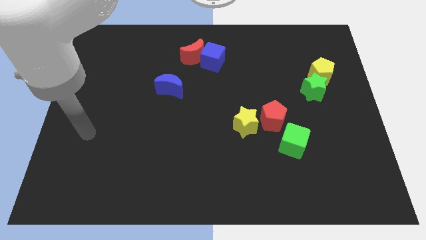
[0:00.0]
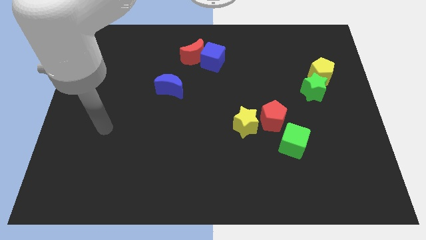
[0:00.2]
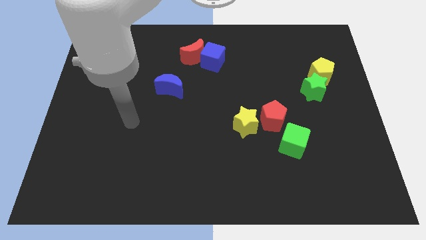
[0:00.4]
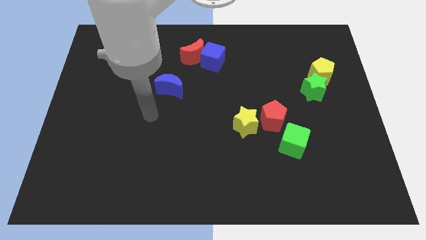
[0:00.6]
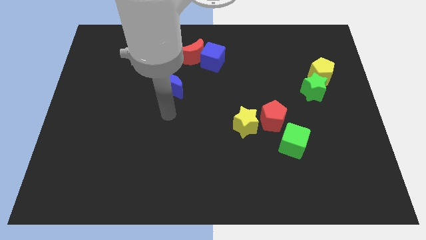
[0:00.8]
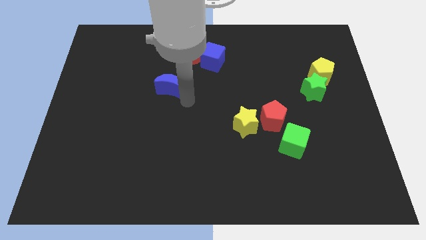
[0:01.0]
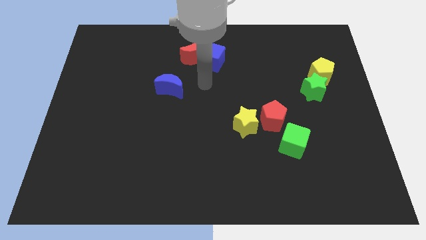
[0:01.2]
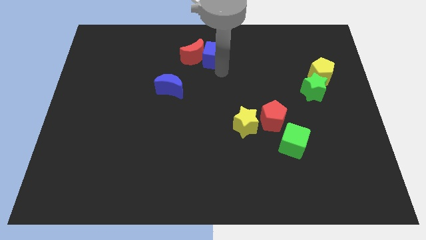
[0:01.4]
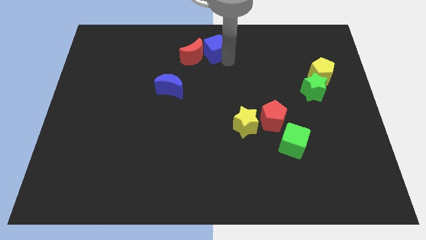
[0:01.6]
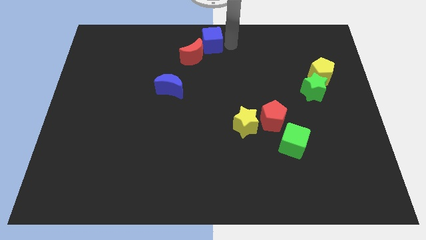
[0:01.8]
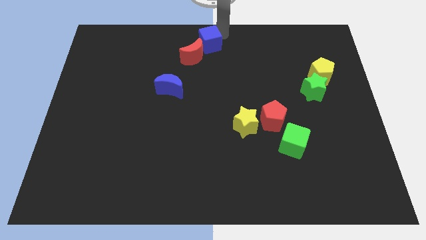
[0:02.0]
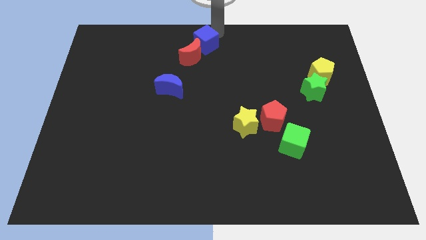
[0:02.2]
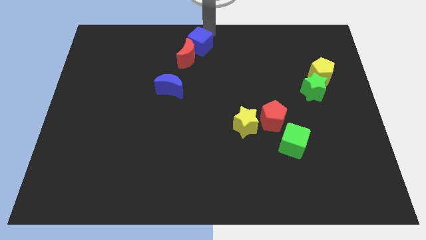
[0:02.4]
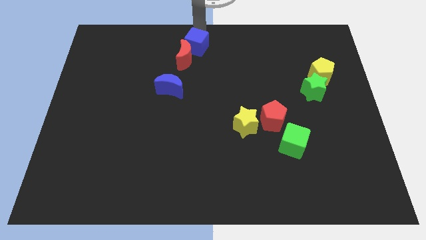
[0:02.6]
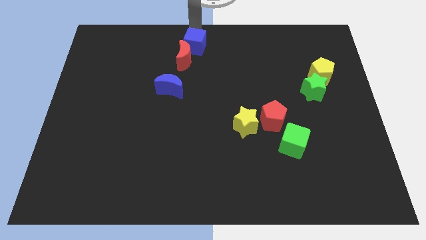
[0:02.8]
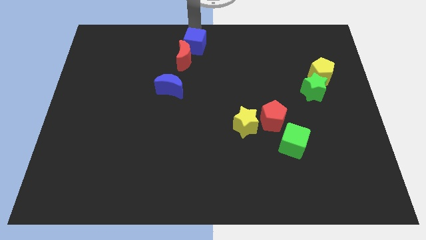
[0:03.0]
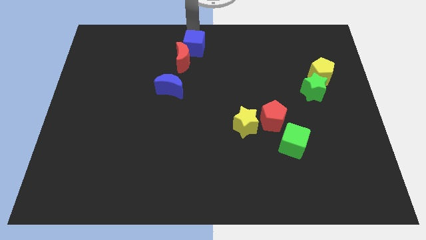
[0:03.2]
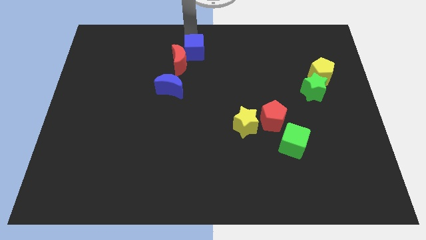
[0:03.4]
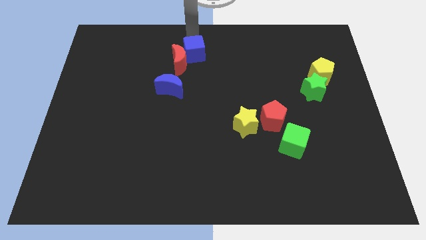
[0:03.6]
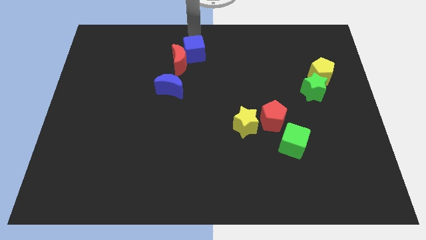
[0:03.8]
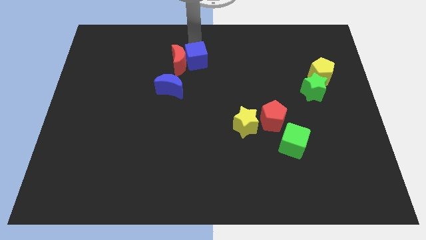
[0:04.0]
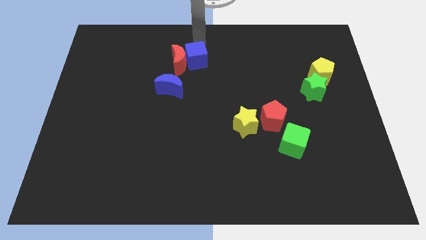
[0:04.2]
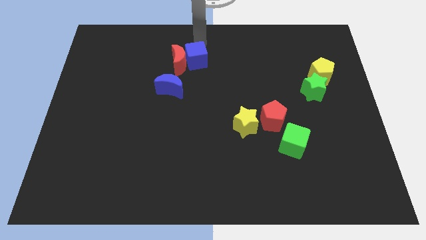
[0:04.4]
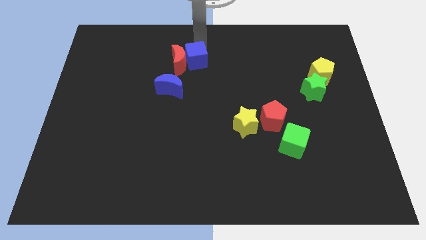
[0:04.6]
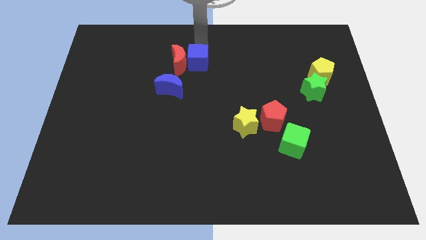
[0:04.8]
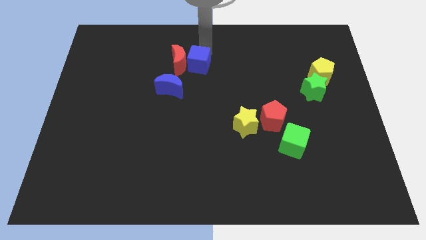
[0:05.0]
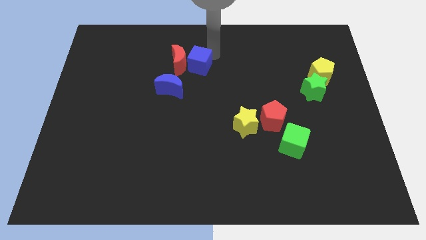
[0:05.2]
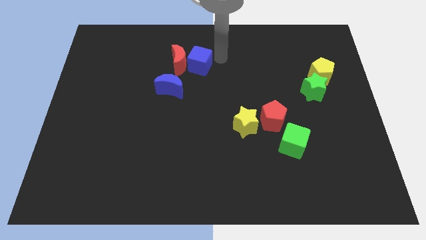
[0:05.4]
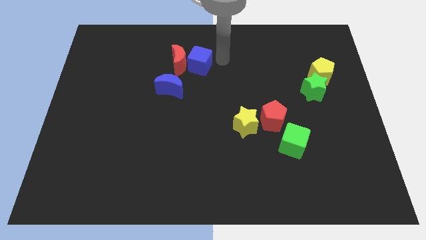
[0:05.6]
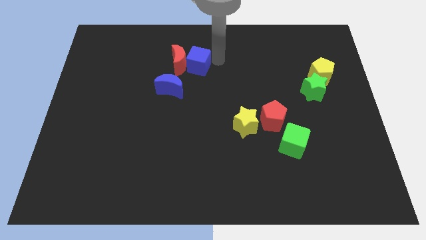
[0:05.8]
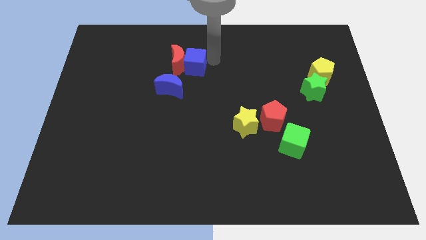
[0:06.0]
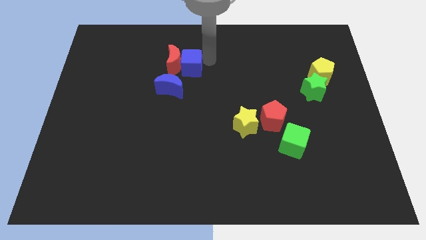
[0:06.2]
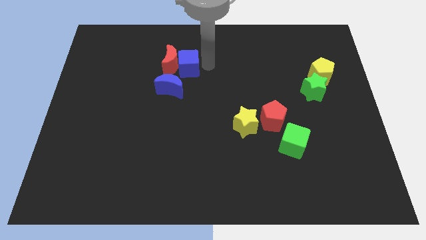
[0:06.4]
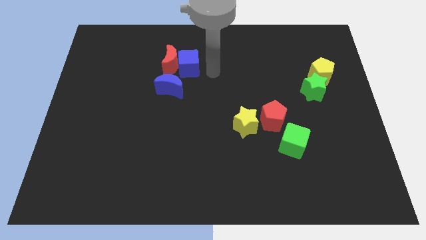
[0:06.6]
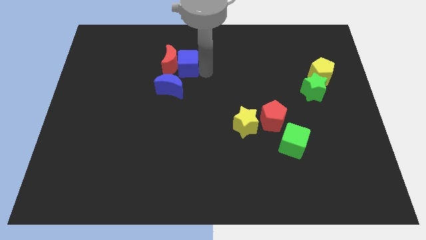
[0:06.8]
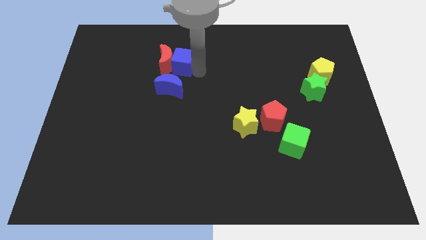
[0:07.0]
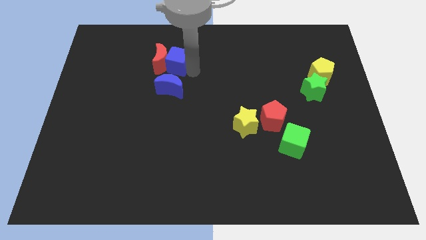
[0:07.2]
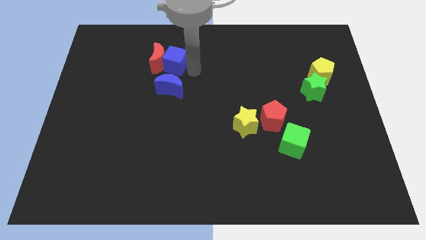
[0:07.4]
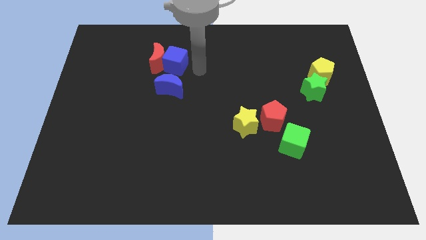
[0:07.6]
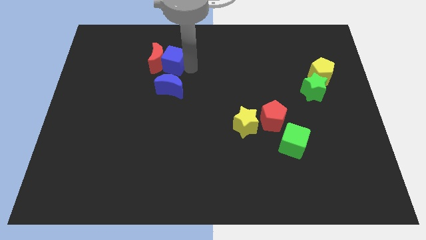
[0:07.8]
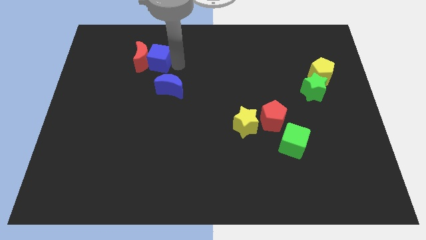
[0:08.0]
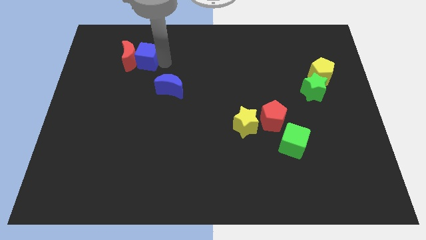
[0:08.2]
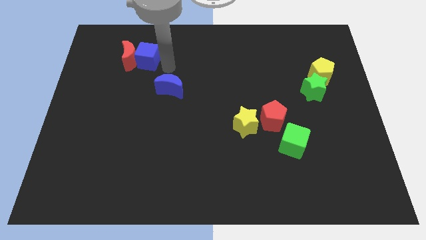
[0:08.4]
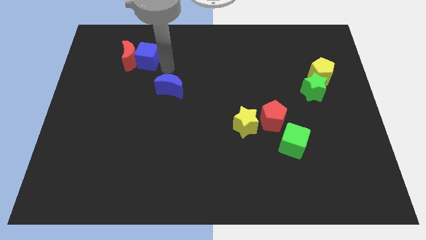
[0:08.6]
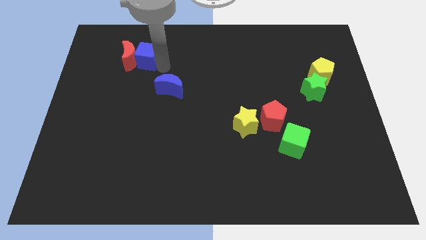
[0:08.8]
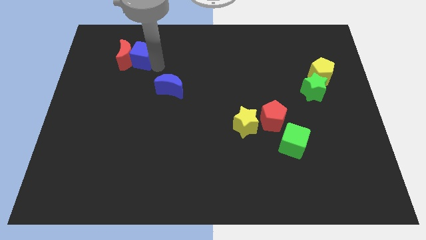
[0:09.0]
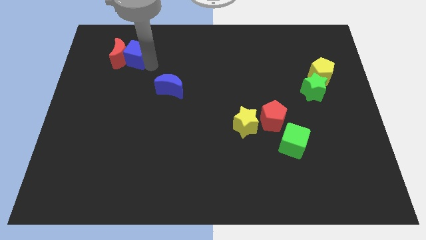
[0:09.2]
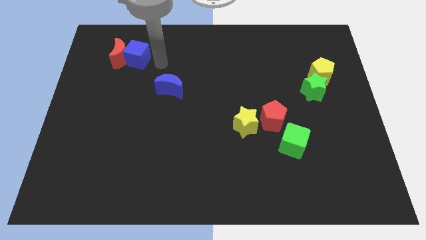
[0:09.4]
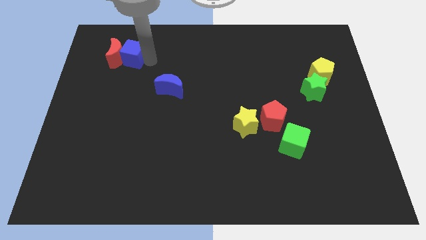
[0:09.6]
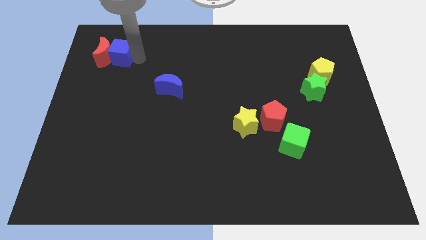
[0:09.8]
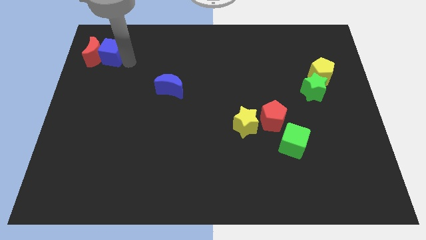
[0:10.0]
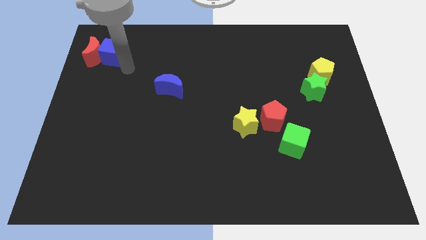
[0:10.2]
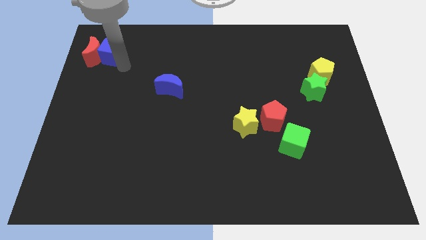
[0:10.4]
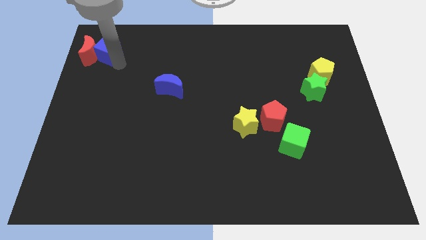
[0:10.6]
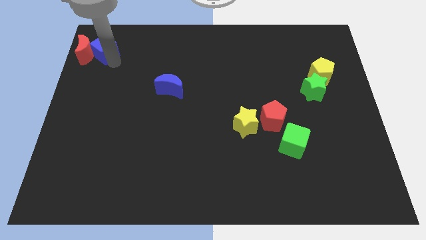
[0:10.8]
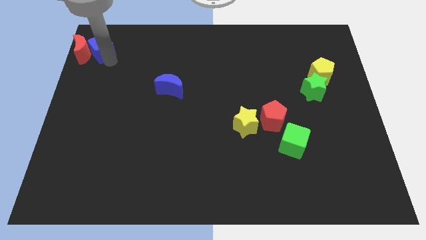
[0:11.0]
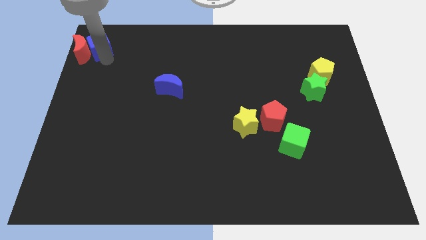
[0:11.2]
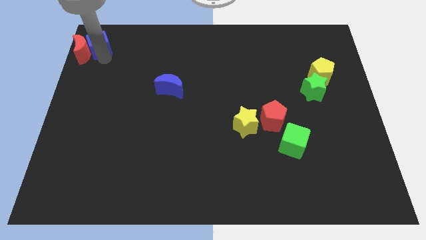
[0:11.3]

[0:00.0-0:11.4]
move the blue cube to the top left corner

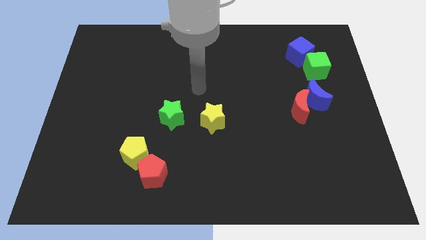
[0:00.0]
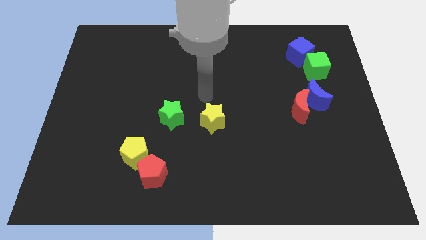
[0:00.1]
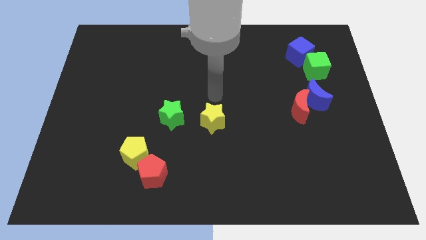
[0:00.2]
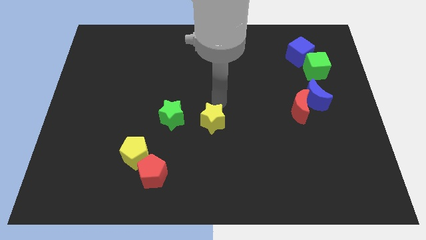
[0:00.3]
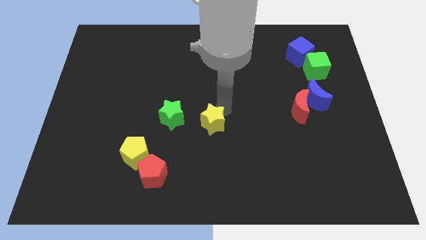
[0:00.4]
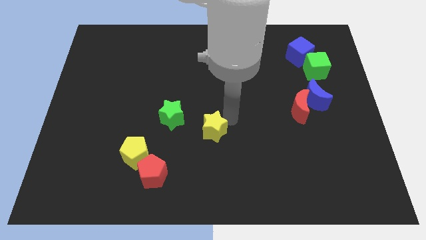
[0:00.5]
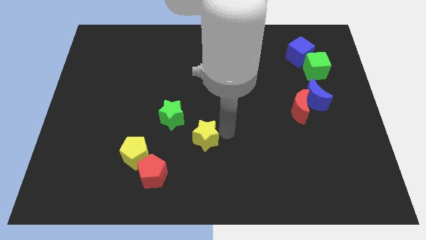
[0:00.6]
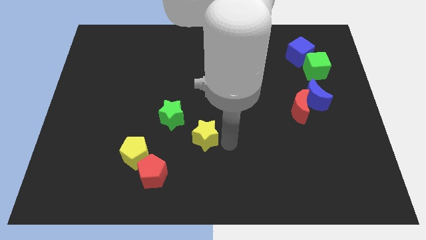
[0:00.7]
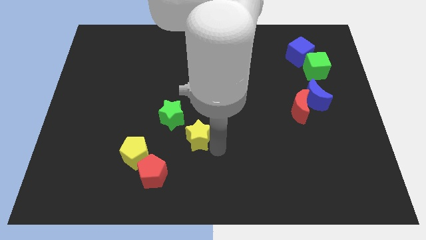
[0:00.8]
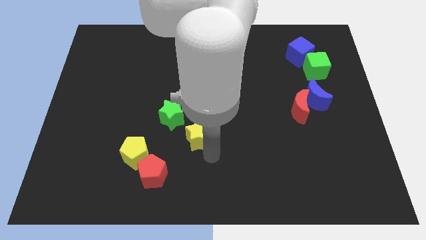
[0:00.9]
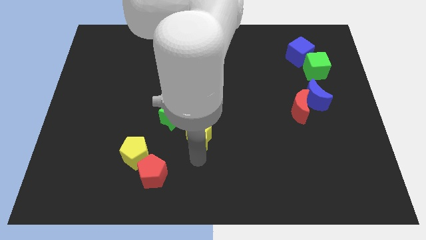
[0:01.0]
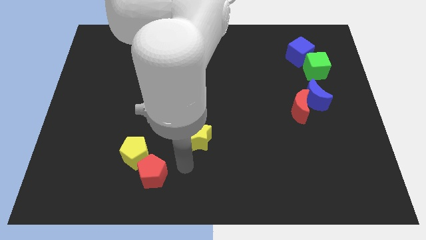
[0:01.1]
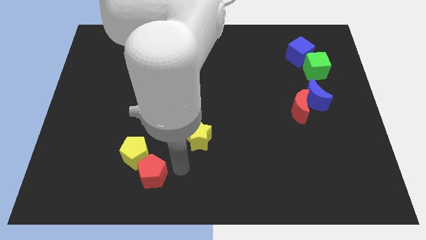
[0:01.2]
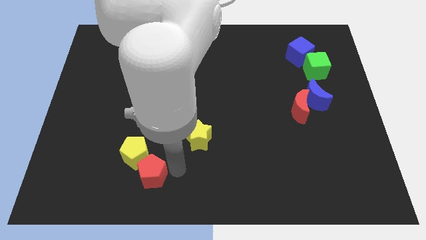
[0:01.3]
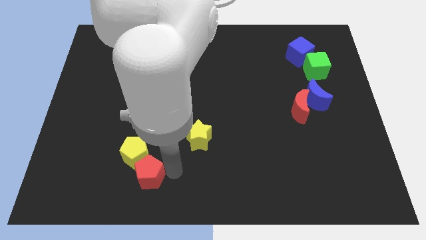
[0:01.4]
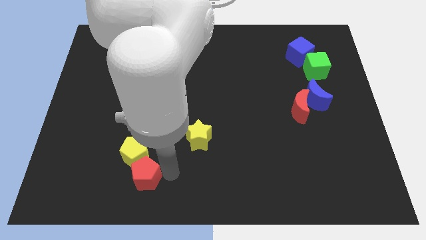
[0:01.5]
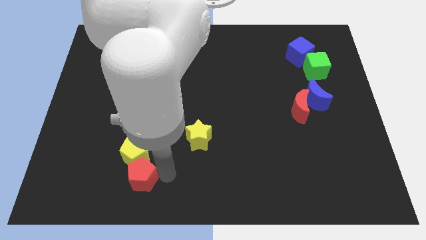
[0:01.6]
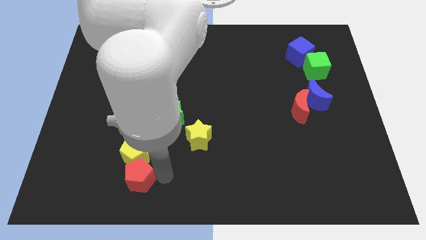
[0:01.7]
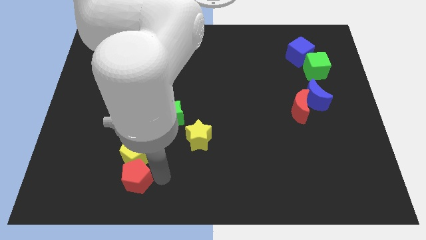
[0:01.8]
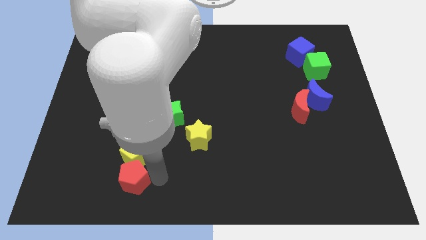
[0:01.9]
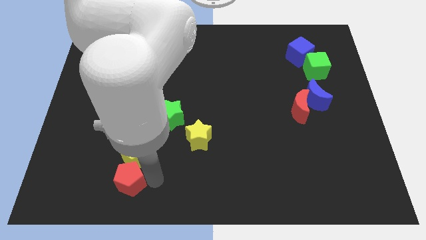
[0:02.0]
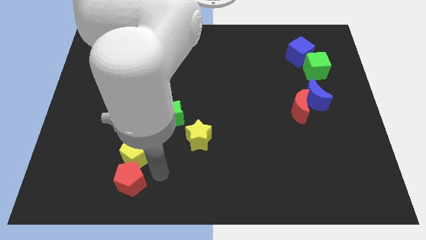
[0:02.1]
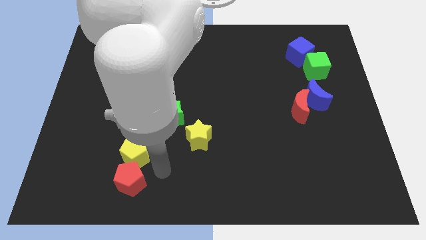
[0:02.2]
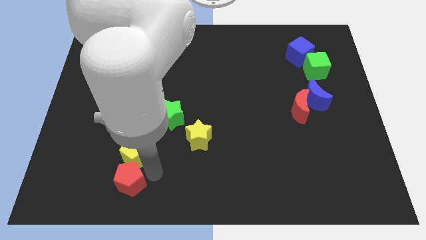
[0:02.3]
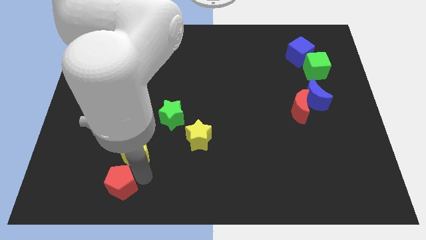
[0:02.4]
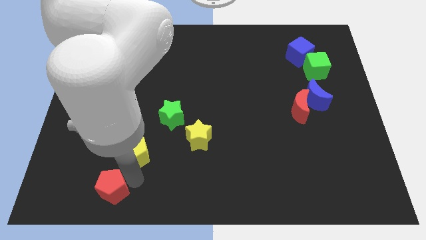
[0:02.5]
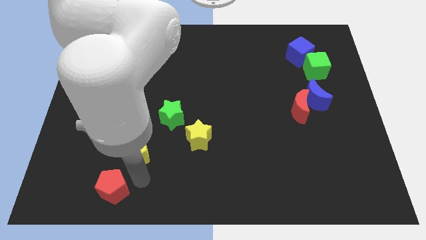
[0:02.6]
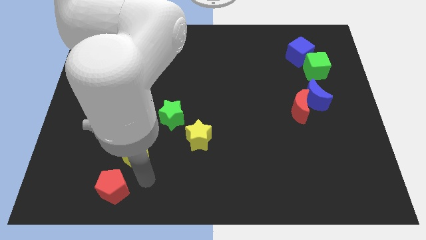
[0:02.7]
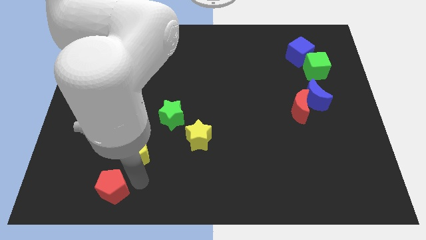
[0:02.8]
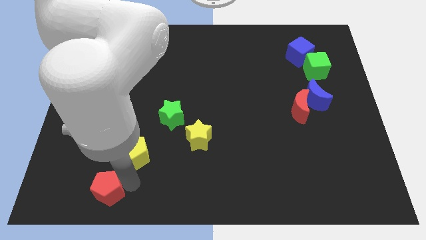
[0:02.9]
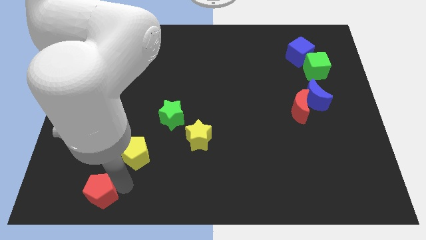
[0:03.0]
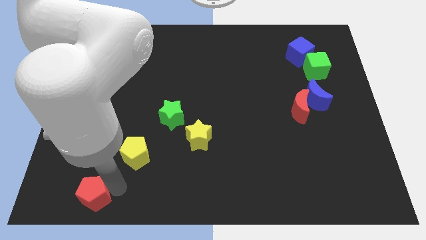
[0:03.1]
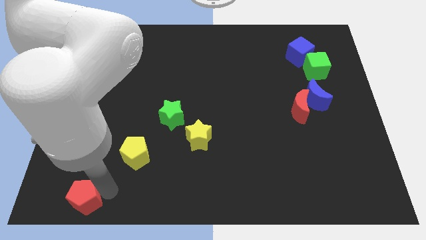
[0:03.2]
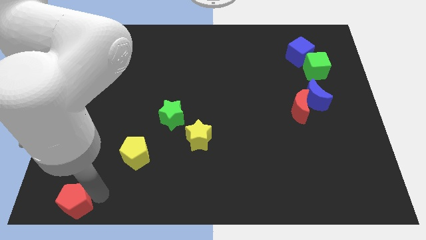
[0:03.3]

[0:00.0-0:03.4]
move the red pentagon to the bottom left corner
